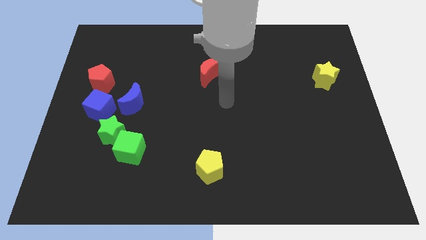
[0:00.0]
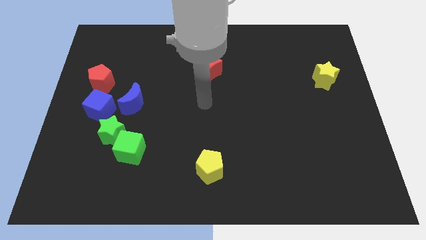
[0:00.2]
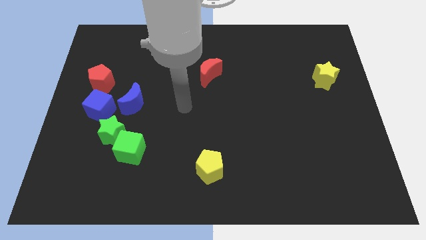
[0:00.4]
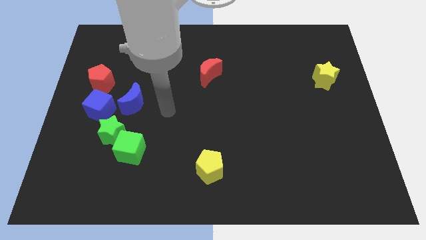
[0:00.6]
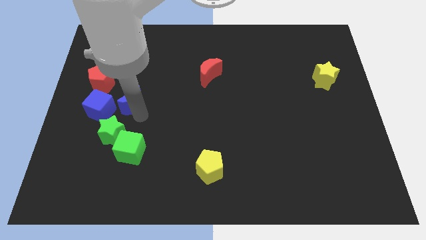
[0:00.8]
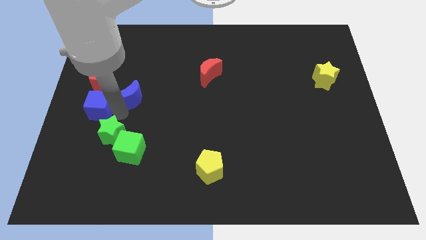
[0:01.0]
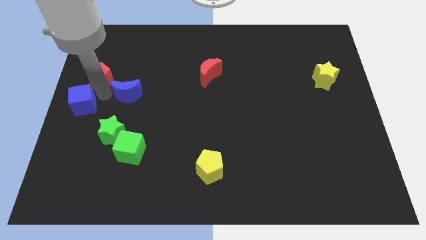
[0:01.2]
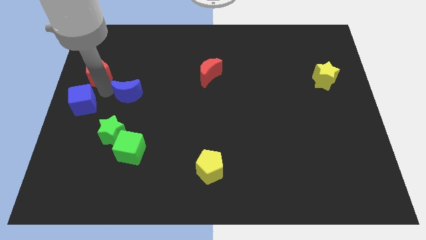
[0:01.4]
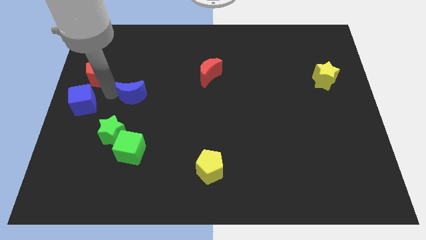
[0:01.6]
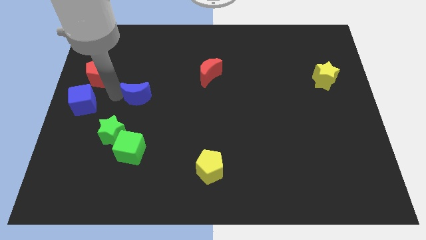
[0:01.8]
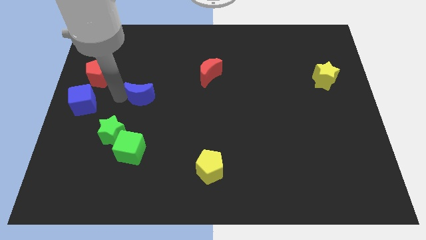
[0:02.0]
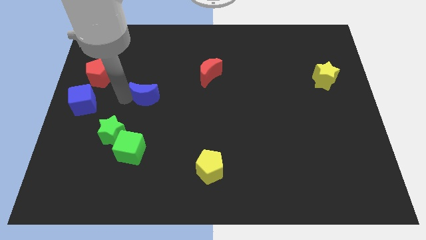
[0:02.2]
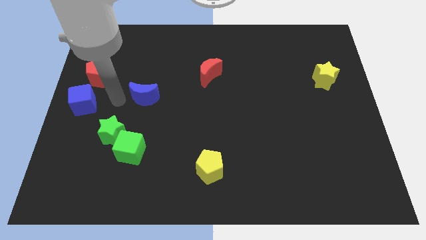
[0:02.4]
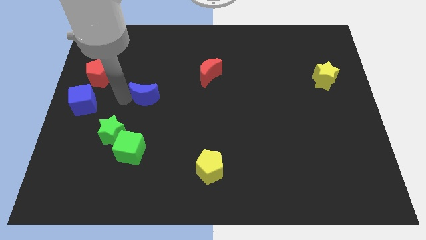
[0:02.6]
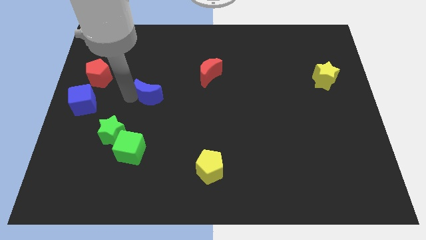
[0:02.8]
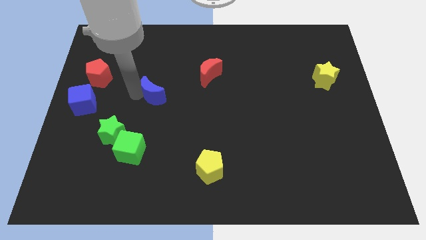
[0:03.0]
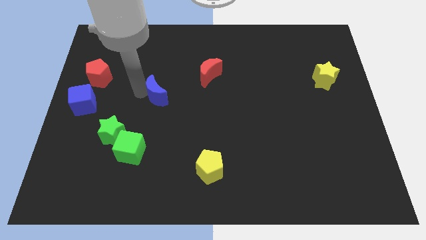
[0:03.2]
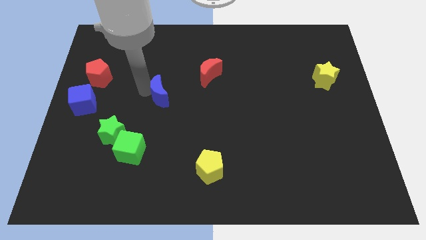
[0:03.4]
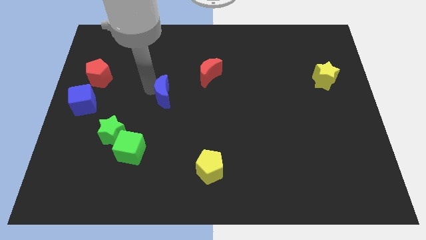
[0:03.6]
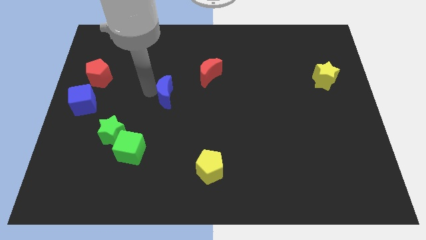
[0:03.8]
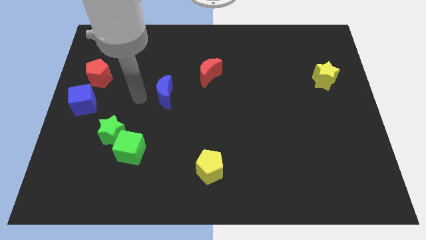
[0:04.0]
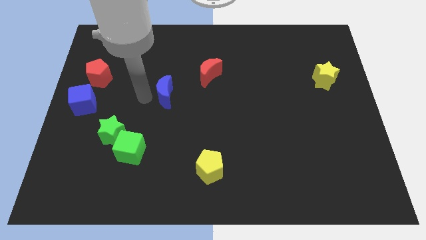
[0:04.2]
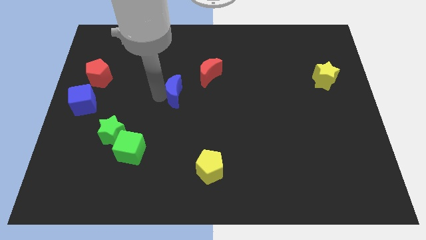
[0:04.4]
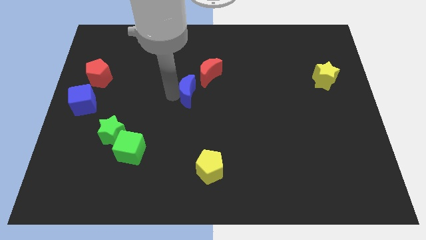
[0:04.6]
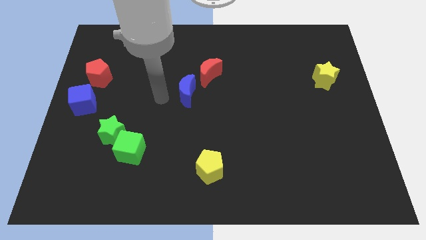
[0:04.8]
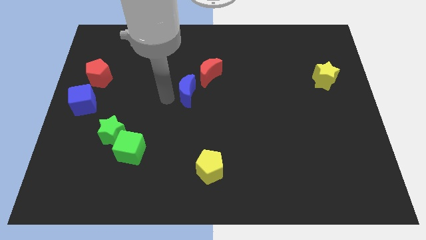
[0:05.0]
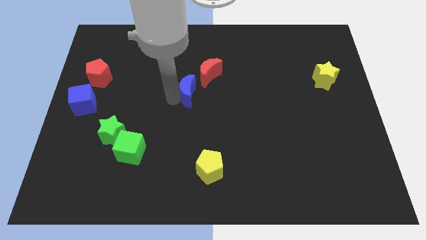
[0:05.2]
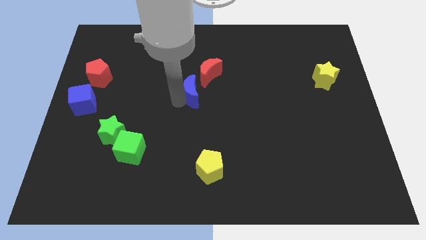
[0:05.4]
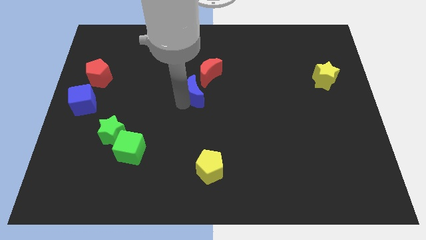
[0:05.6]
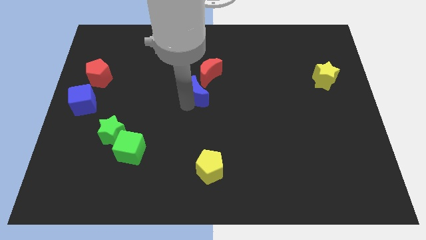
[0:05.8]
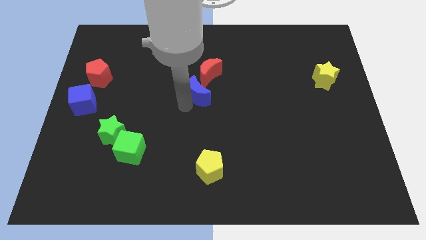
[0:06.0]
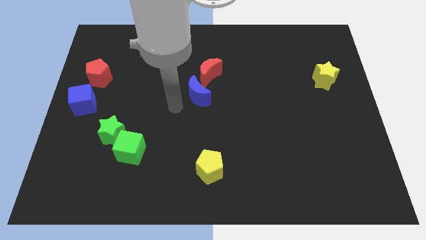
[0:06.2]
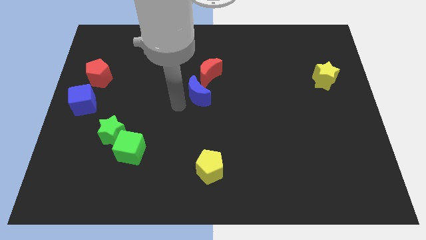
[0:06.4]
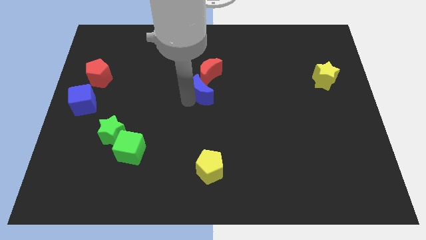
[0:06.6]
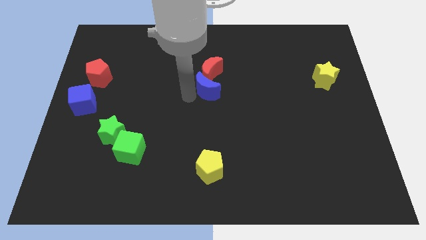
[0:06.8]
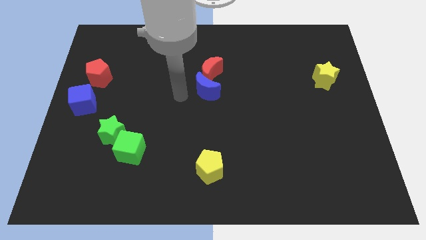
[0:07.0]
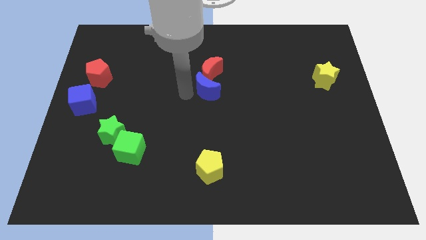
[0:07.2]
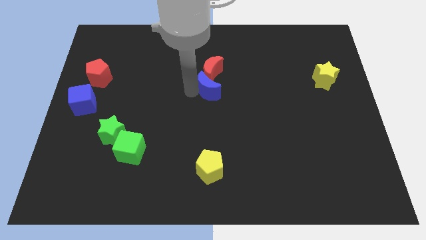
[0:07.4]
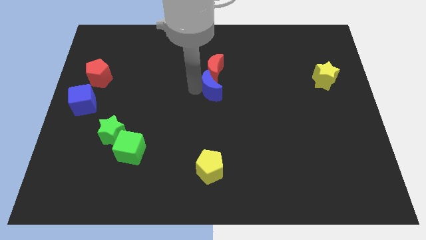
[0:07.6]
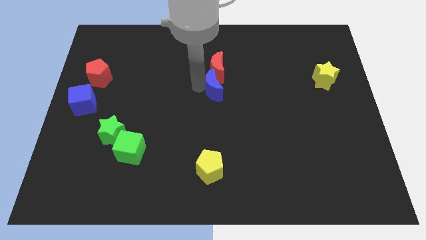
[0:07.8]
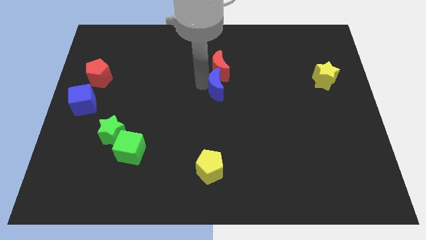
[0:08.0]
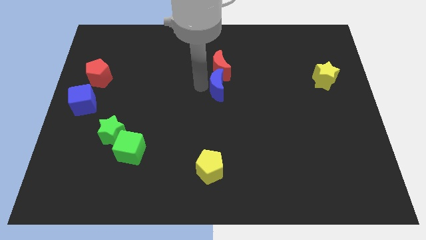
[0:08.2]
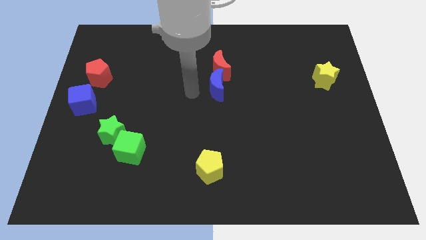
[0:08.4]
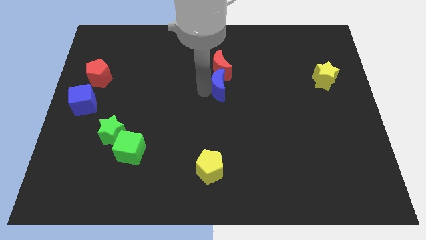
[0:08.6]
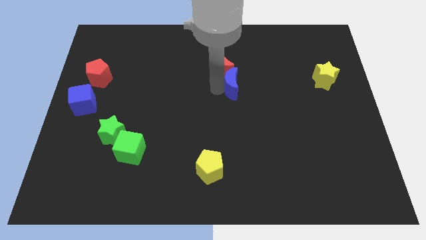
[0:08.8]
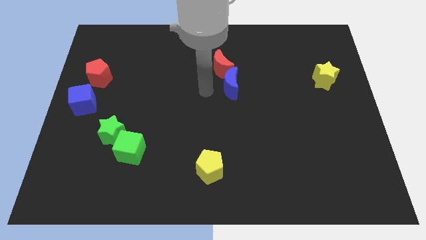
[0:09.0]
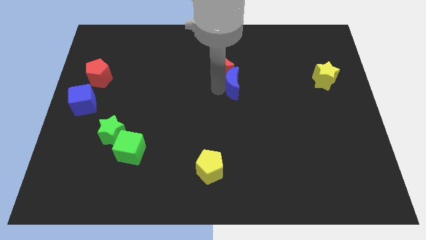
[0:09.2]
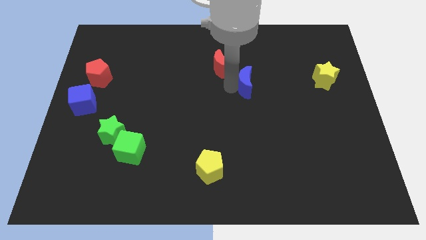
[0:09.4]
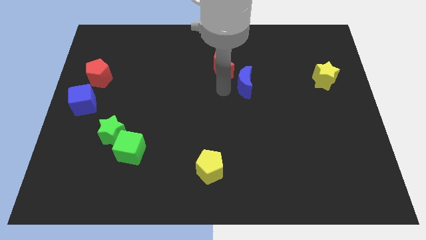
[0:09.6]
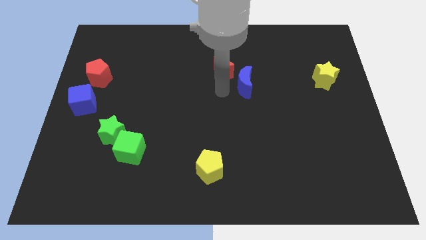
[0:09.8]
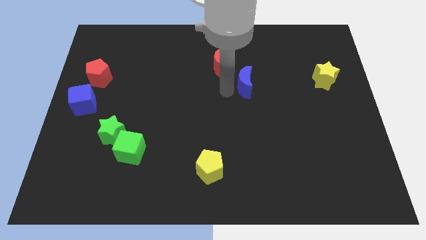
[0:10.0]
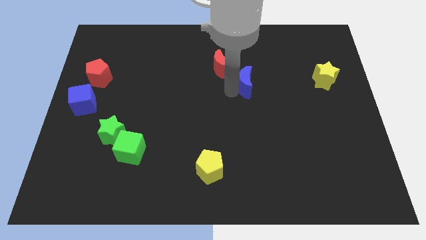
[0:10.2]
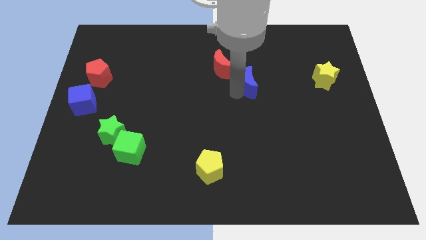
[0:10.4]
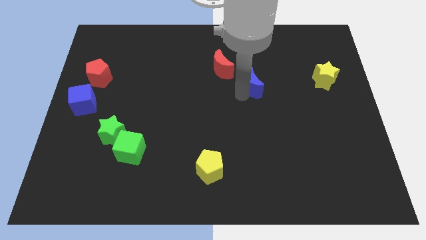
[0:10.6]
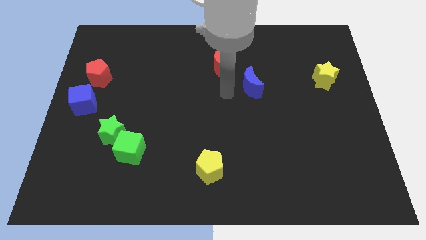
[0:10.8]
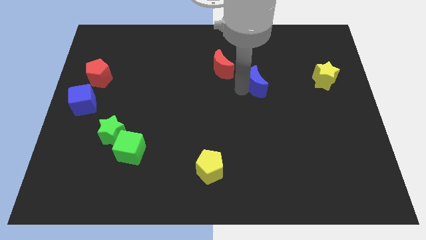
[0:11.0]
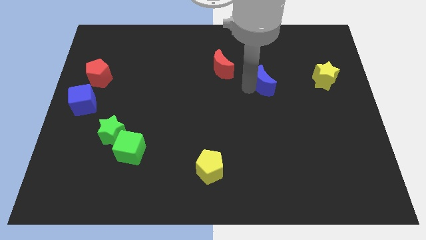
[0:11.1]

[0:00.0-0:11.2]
push the blue moon just left of the yellow star

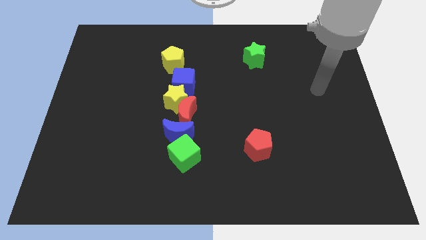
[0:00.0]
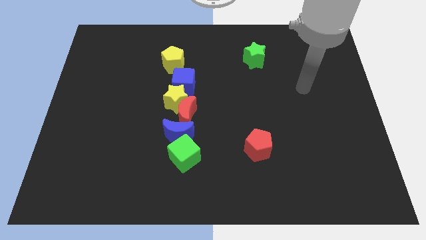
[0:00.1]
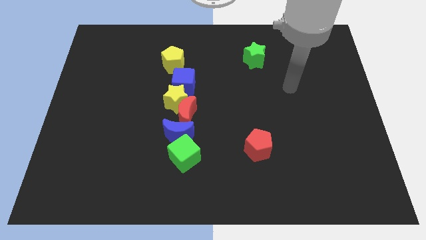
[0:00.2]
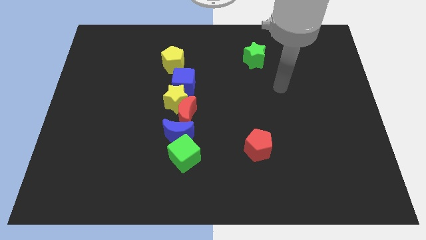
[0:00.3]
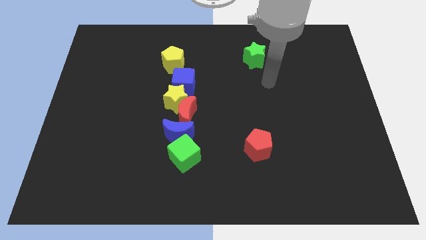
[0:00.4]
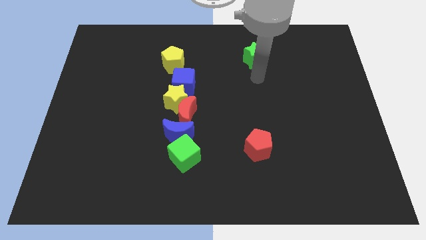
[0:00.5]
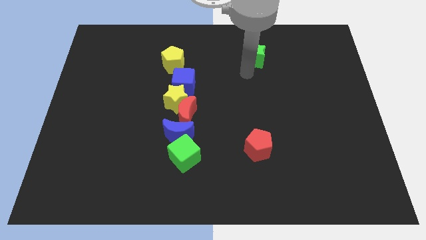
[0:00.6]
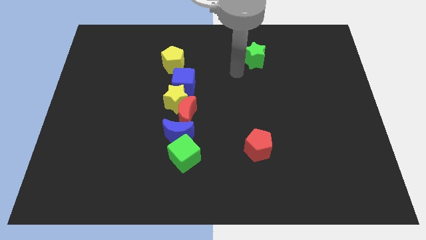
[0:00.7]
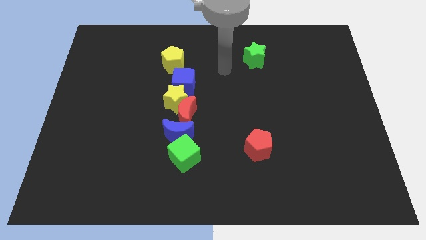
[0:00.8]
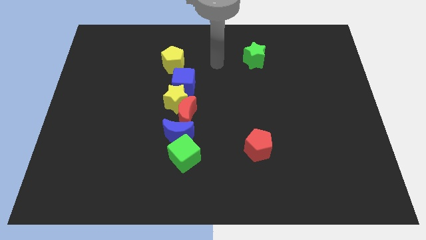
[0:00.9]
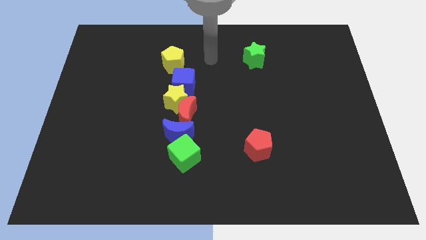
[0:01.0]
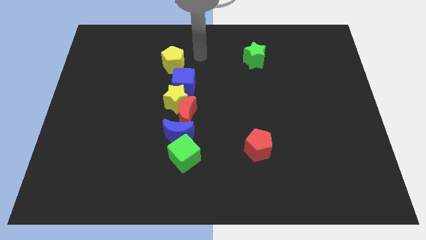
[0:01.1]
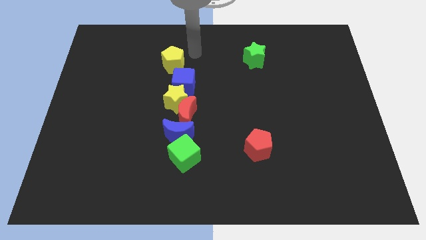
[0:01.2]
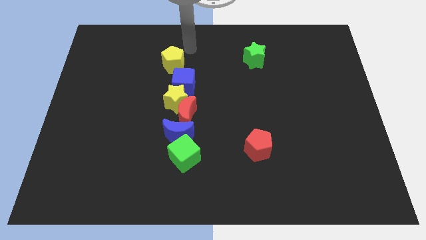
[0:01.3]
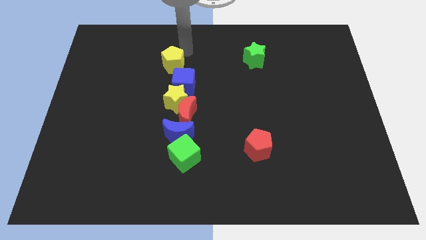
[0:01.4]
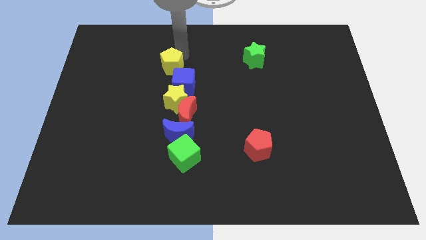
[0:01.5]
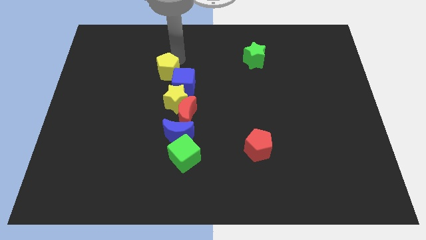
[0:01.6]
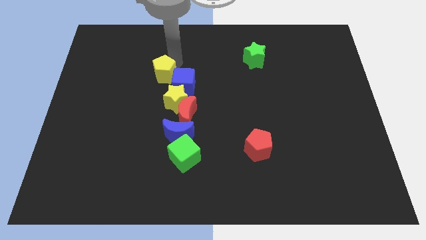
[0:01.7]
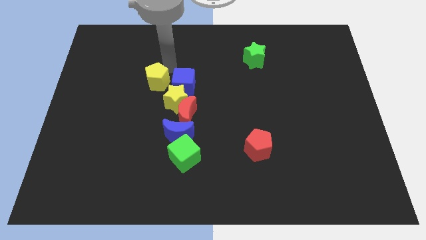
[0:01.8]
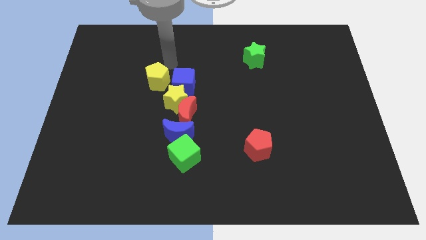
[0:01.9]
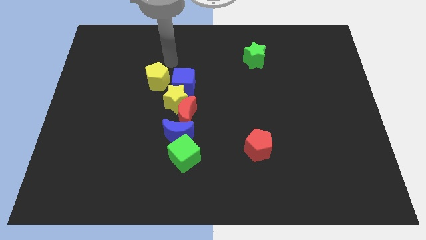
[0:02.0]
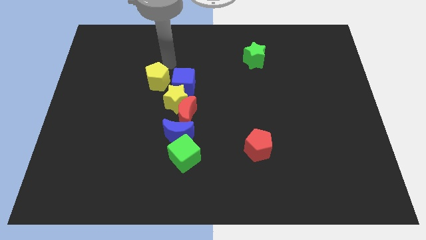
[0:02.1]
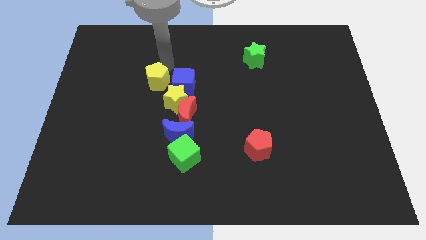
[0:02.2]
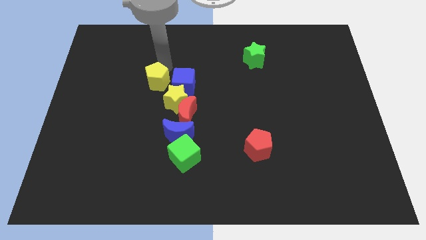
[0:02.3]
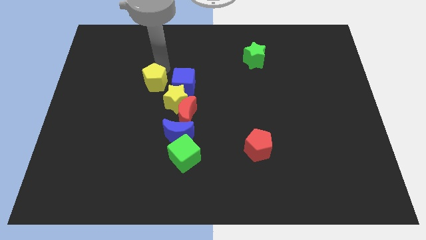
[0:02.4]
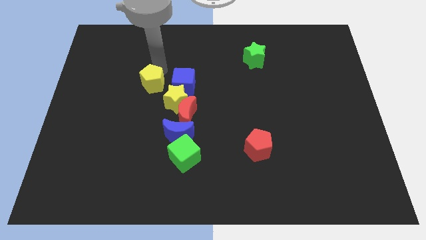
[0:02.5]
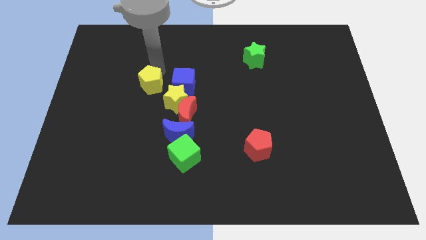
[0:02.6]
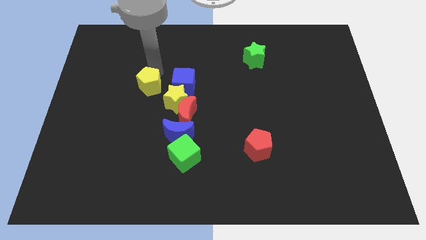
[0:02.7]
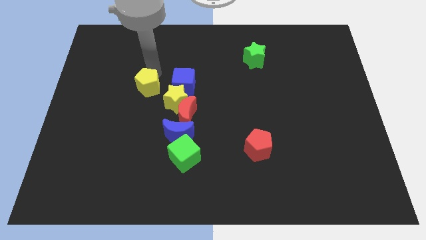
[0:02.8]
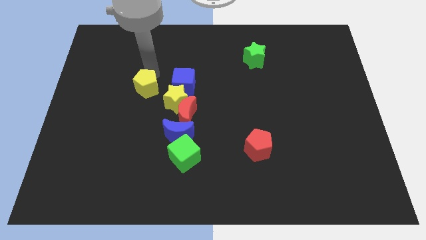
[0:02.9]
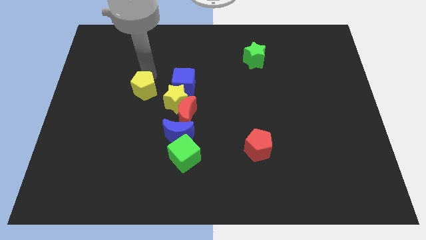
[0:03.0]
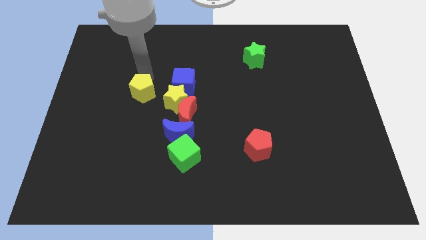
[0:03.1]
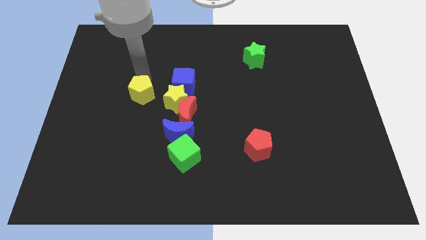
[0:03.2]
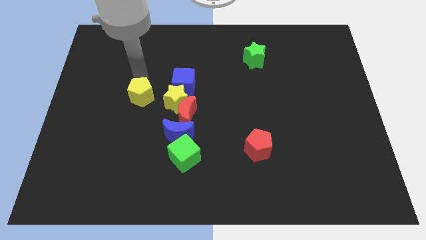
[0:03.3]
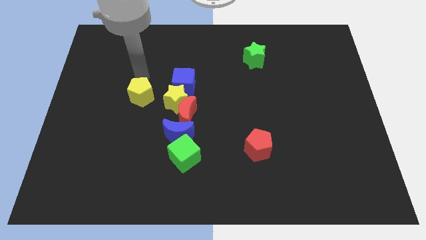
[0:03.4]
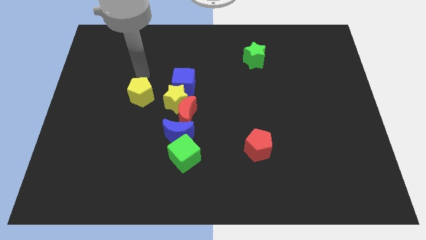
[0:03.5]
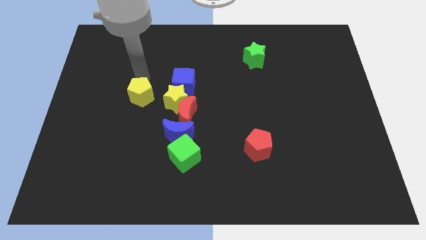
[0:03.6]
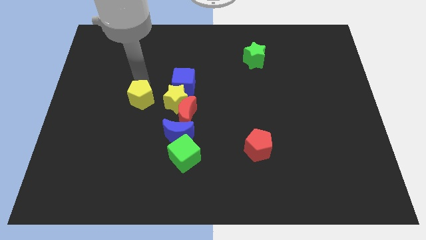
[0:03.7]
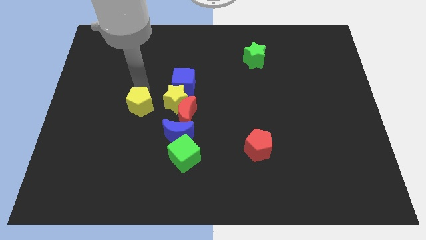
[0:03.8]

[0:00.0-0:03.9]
push the yellow pentagon to the left side of the red moon
